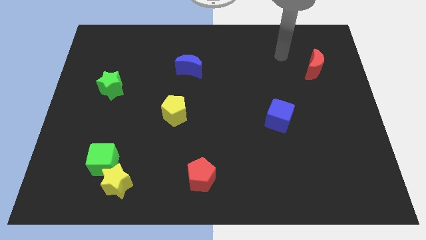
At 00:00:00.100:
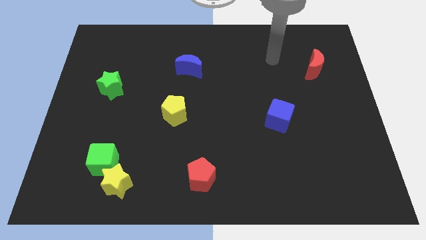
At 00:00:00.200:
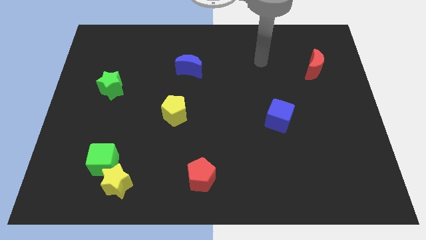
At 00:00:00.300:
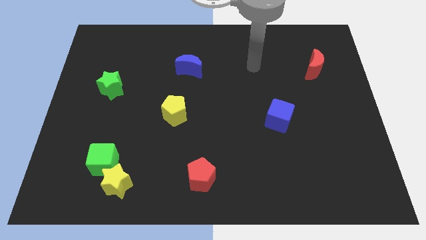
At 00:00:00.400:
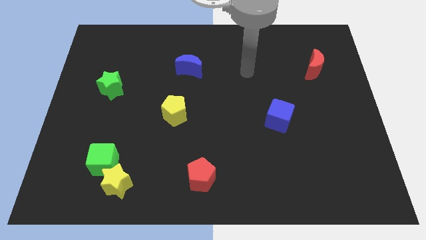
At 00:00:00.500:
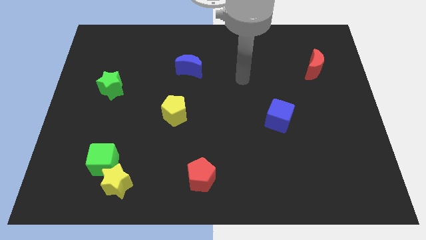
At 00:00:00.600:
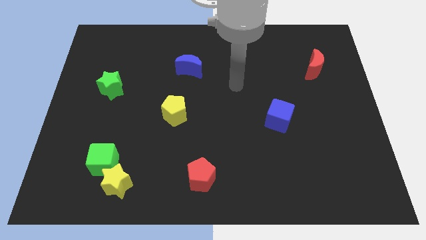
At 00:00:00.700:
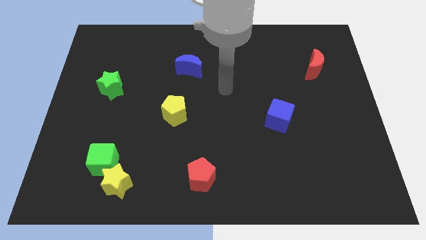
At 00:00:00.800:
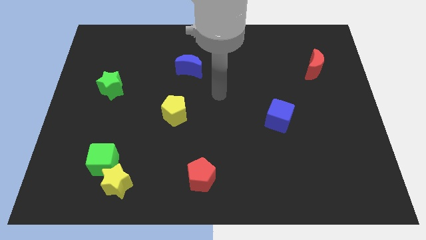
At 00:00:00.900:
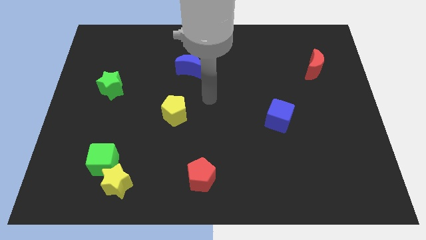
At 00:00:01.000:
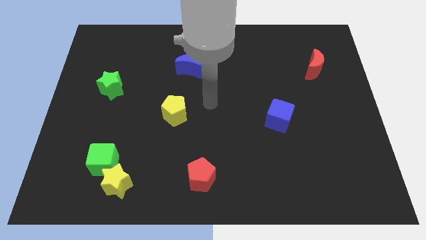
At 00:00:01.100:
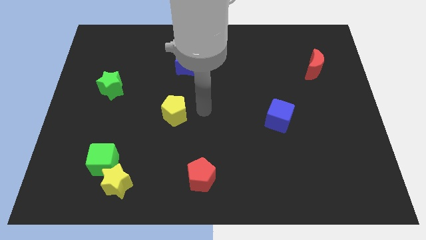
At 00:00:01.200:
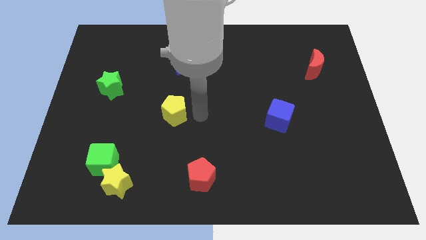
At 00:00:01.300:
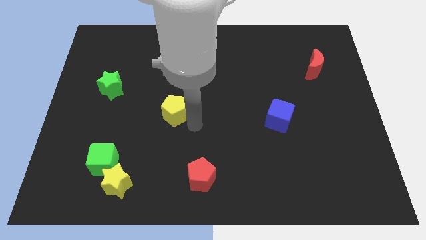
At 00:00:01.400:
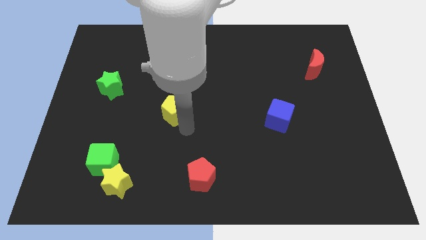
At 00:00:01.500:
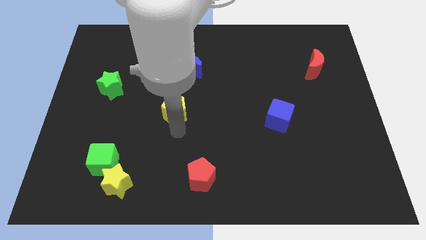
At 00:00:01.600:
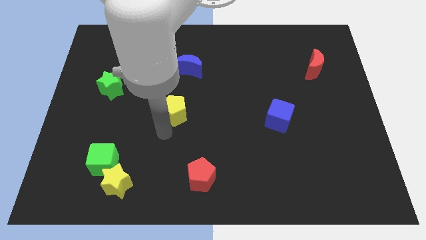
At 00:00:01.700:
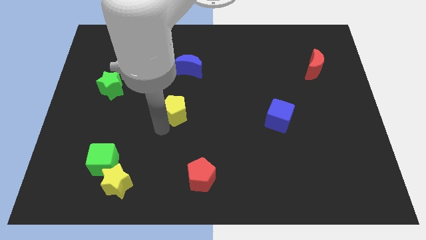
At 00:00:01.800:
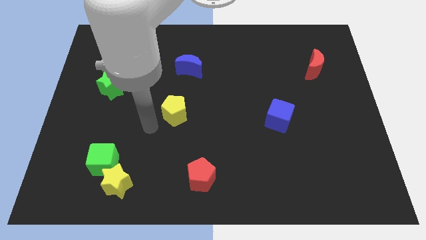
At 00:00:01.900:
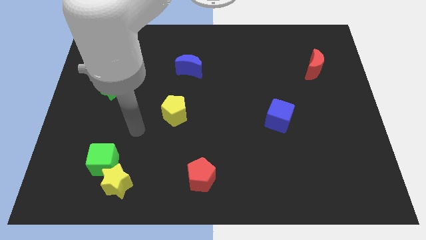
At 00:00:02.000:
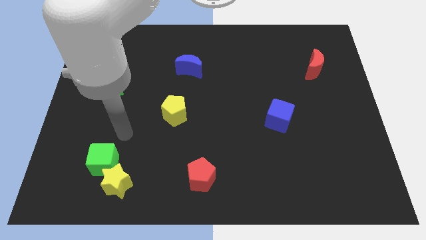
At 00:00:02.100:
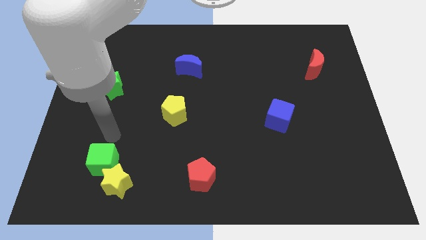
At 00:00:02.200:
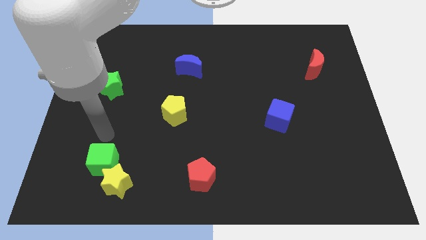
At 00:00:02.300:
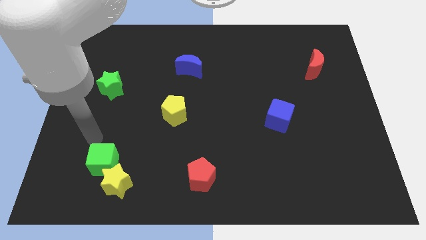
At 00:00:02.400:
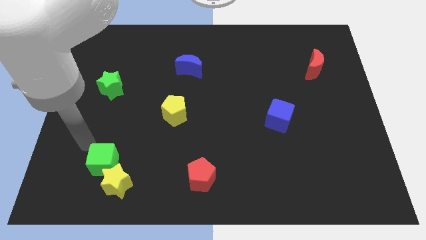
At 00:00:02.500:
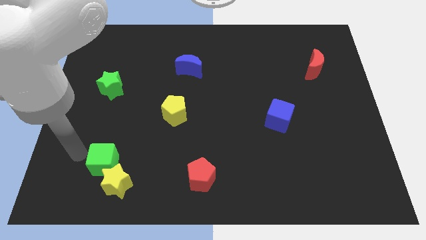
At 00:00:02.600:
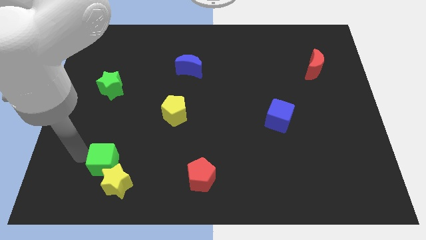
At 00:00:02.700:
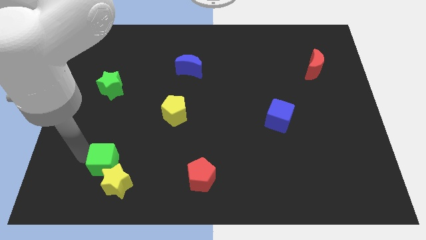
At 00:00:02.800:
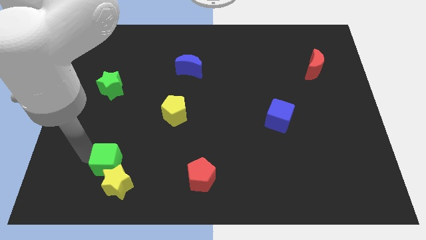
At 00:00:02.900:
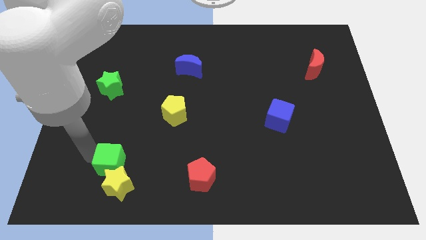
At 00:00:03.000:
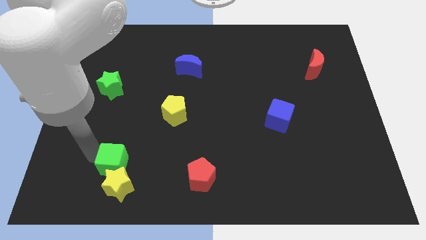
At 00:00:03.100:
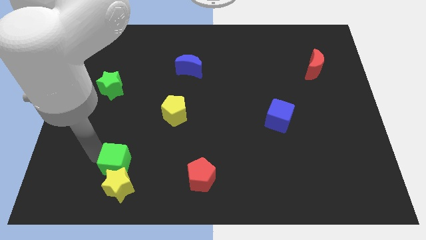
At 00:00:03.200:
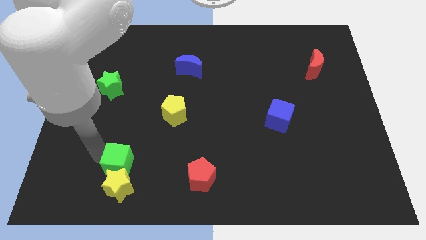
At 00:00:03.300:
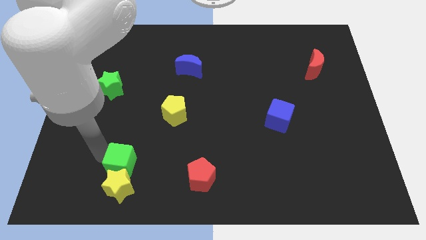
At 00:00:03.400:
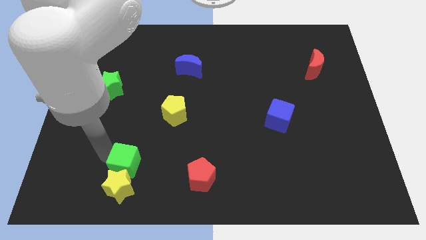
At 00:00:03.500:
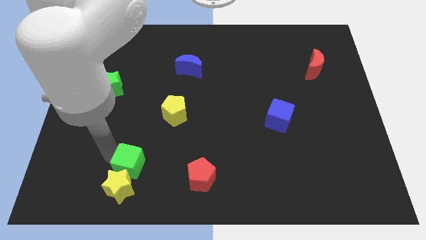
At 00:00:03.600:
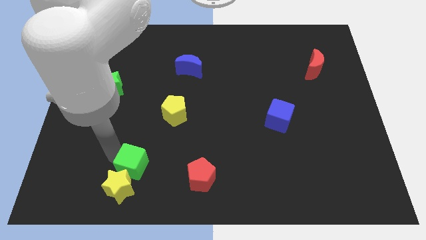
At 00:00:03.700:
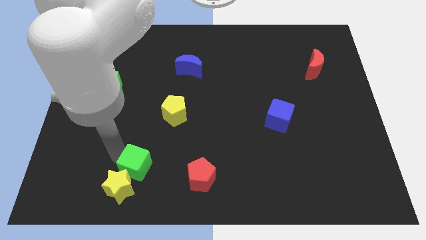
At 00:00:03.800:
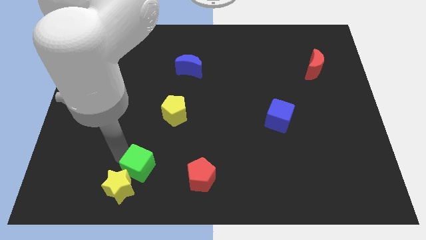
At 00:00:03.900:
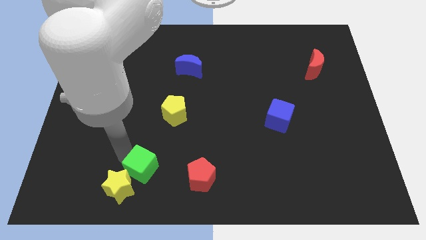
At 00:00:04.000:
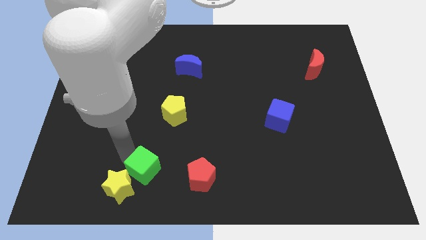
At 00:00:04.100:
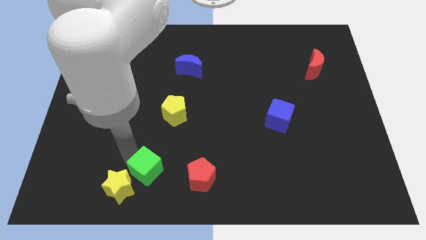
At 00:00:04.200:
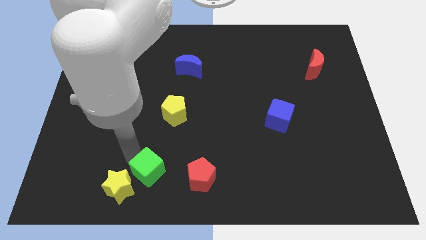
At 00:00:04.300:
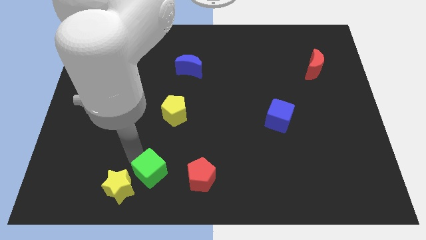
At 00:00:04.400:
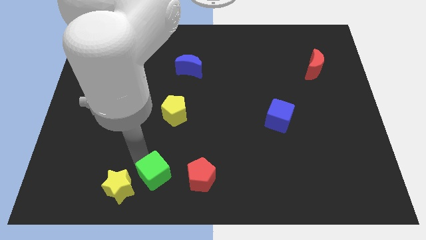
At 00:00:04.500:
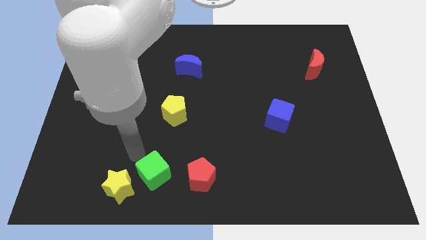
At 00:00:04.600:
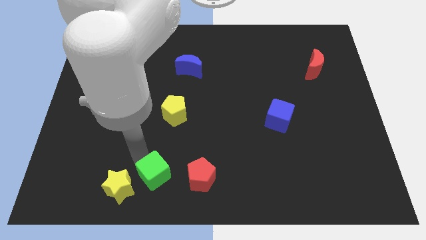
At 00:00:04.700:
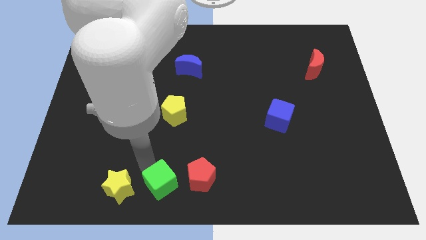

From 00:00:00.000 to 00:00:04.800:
put the green cube to the bottom
